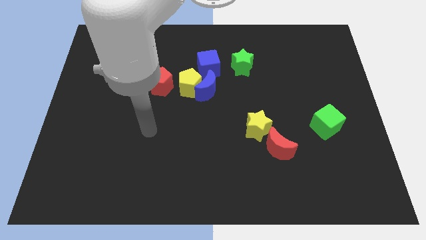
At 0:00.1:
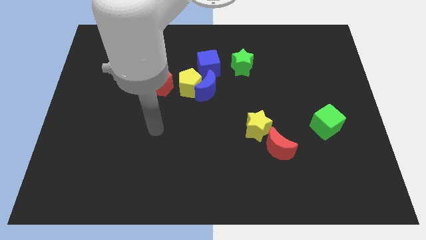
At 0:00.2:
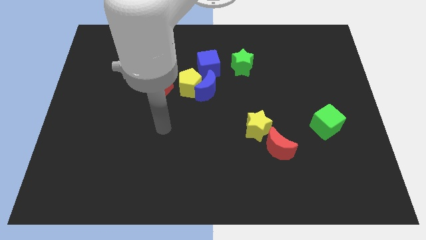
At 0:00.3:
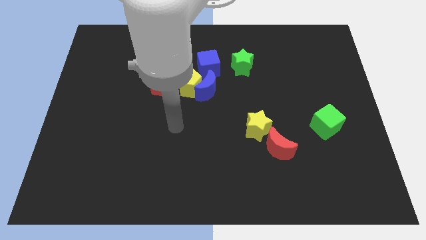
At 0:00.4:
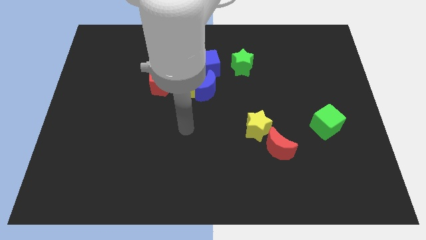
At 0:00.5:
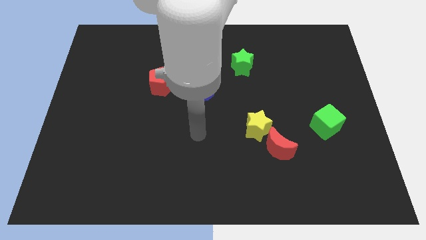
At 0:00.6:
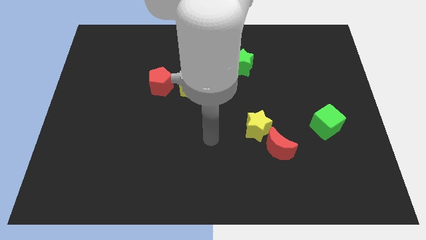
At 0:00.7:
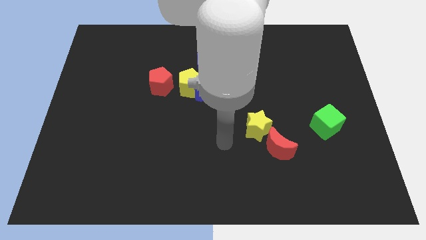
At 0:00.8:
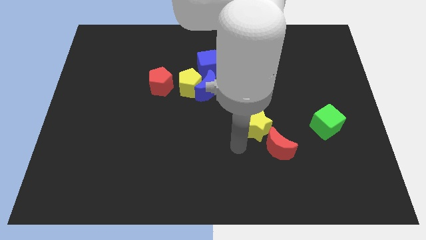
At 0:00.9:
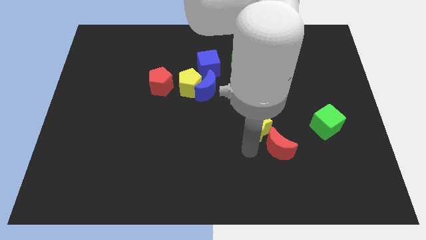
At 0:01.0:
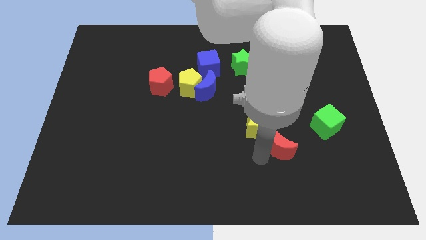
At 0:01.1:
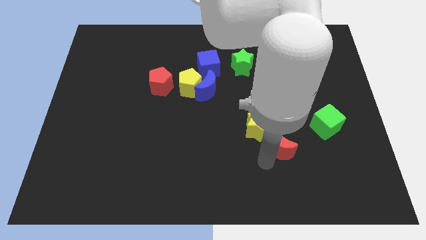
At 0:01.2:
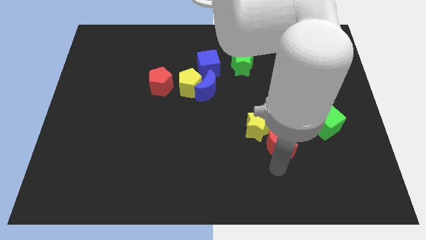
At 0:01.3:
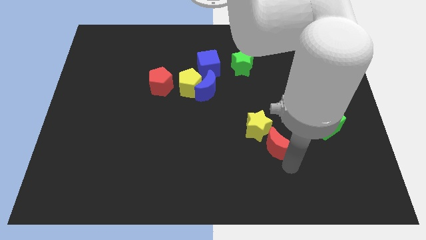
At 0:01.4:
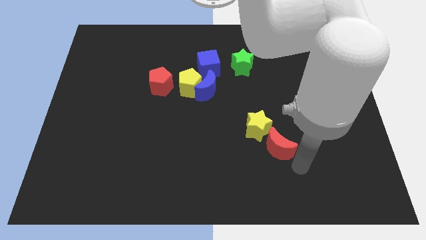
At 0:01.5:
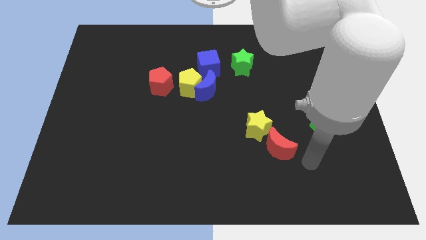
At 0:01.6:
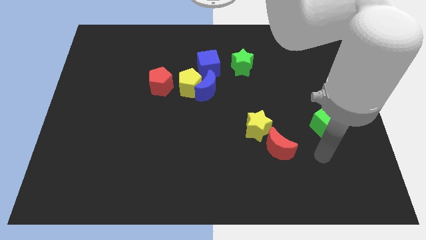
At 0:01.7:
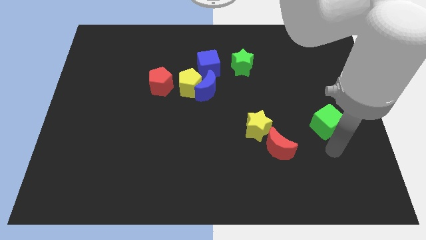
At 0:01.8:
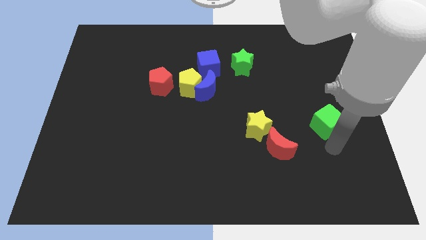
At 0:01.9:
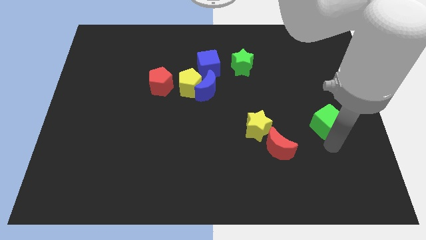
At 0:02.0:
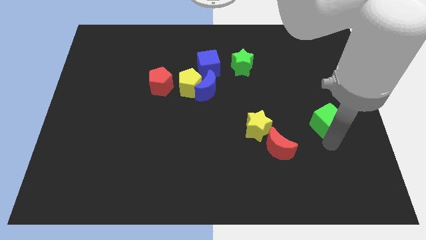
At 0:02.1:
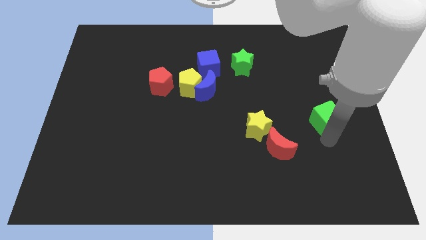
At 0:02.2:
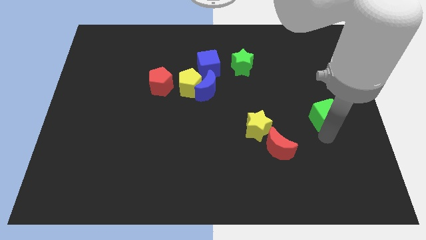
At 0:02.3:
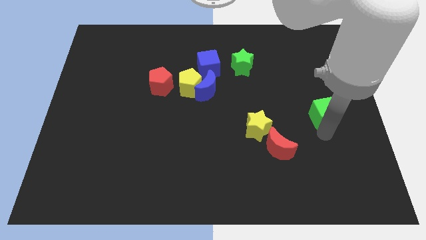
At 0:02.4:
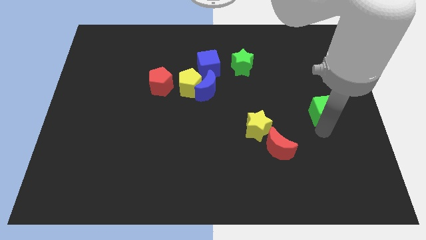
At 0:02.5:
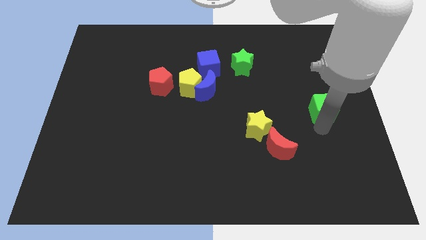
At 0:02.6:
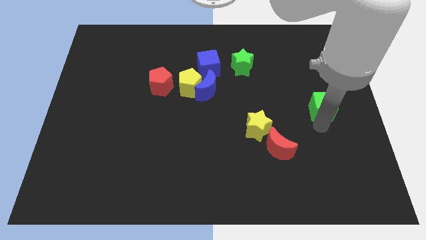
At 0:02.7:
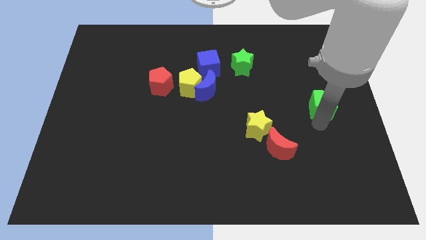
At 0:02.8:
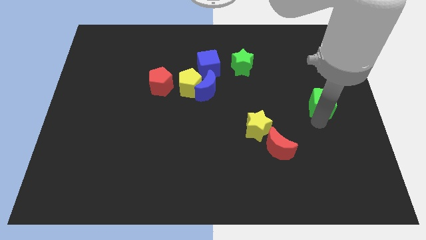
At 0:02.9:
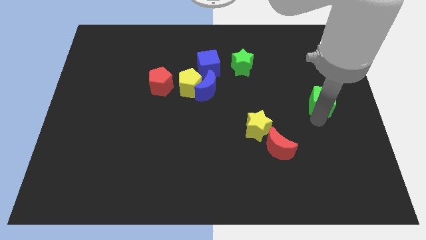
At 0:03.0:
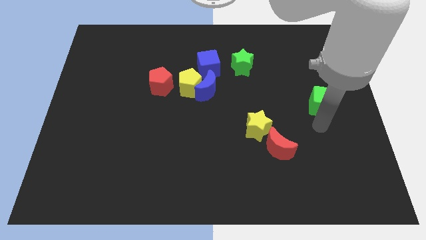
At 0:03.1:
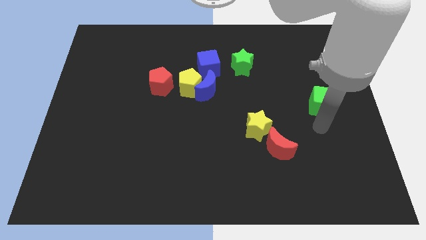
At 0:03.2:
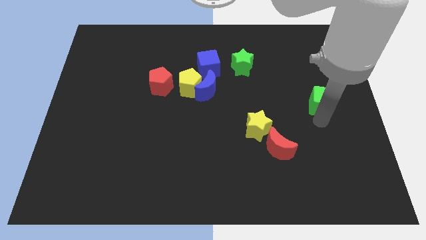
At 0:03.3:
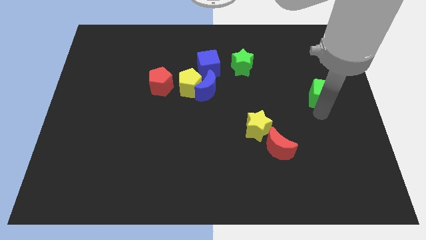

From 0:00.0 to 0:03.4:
move the green cube up a little bit

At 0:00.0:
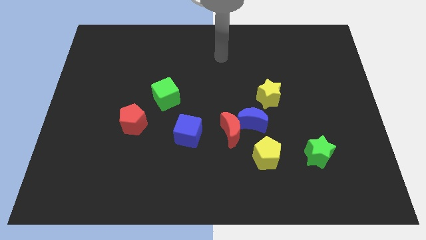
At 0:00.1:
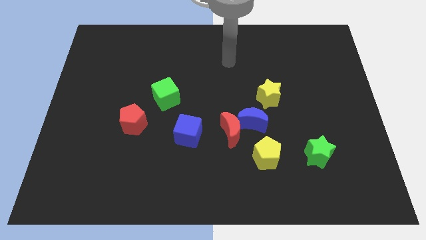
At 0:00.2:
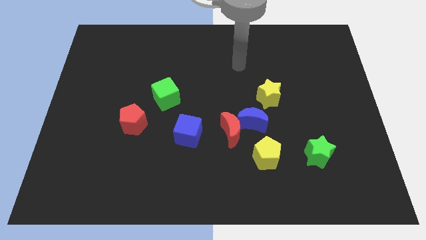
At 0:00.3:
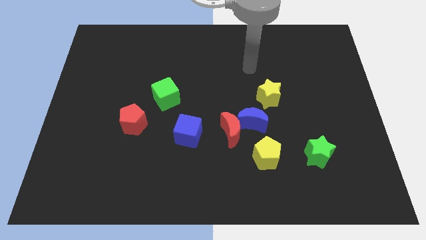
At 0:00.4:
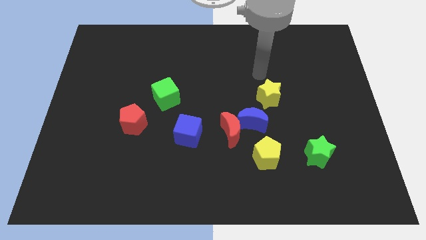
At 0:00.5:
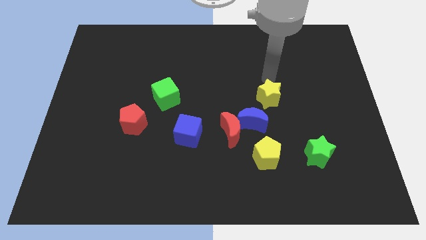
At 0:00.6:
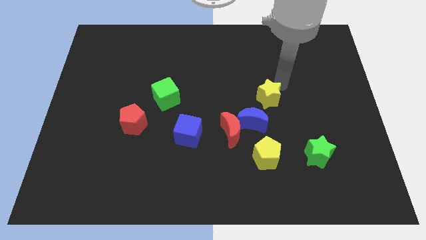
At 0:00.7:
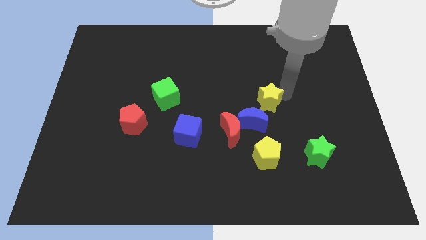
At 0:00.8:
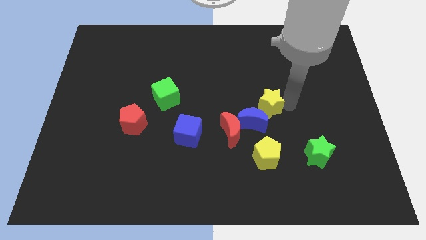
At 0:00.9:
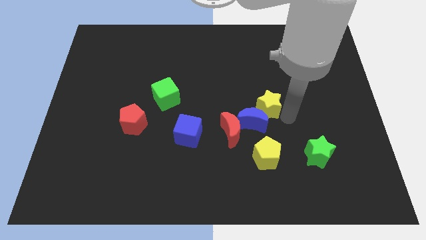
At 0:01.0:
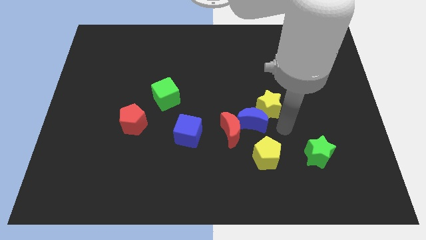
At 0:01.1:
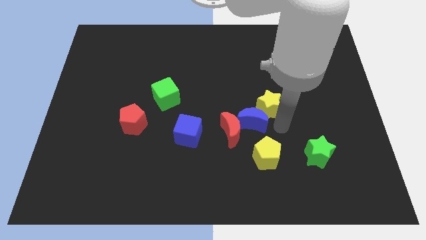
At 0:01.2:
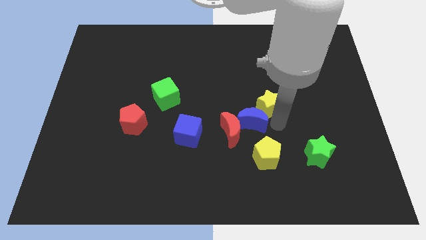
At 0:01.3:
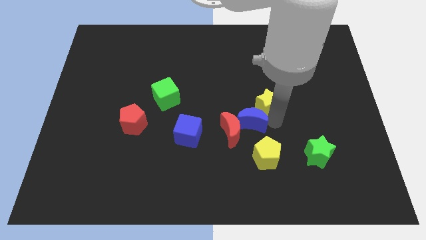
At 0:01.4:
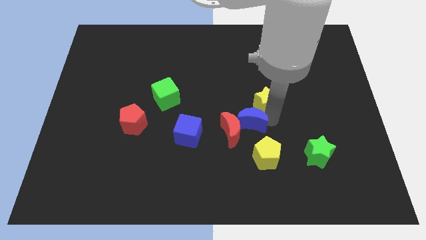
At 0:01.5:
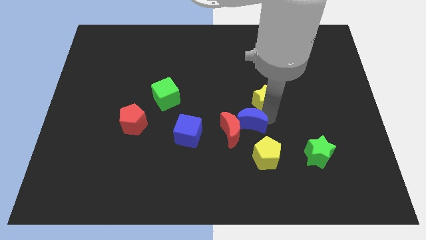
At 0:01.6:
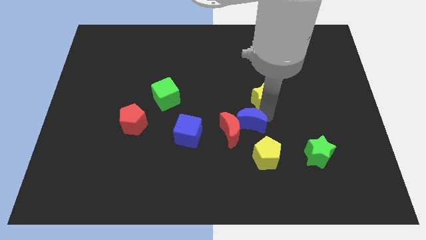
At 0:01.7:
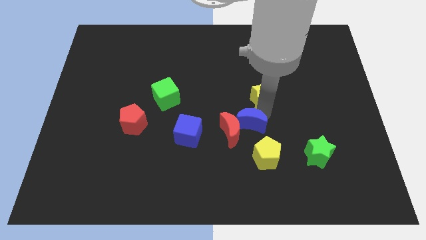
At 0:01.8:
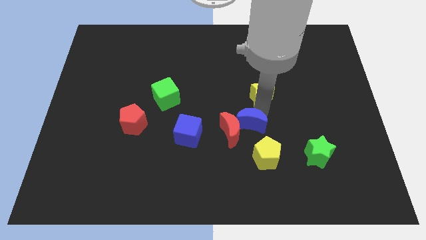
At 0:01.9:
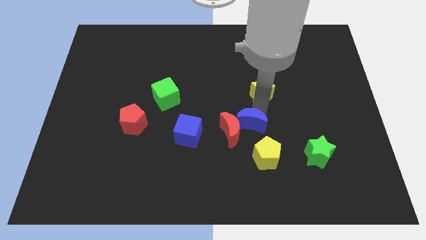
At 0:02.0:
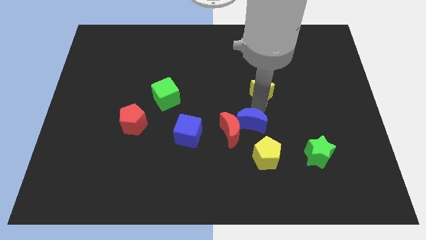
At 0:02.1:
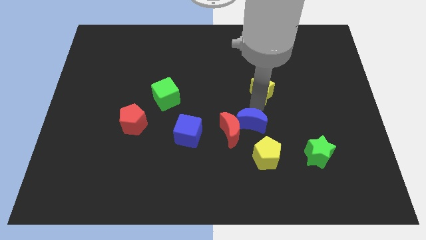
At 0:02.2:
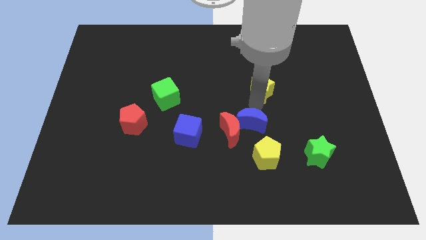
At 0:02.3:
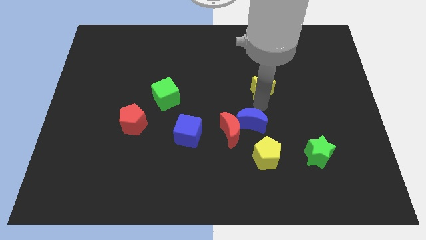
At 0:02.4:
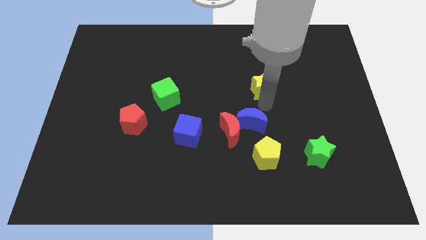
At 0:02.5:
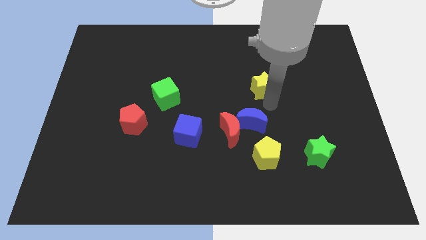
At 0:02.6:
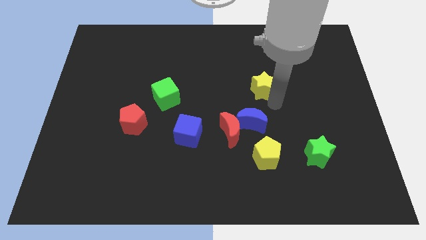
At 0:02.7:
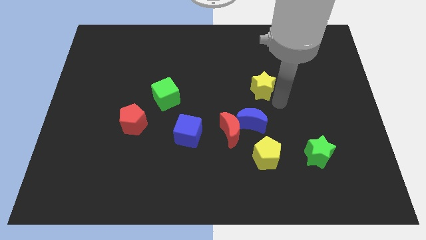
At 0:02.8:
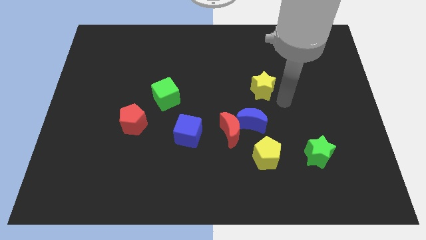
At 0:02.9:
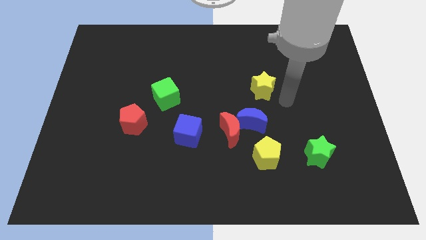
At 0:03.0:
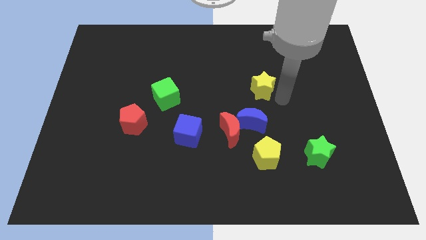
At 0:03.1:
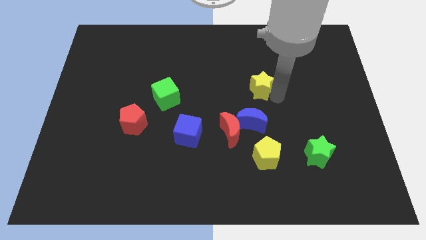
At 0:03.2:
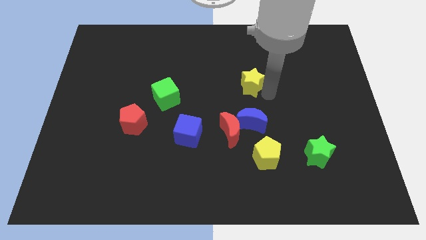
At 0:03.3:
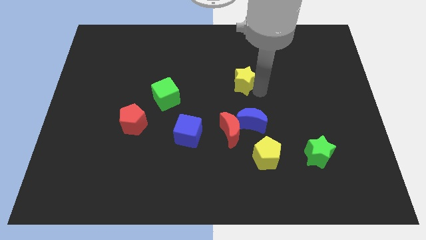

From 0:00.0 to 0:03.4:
move the yellow star up and to the left a little bit

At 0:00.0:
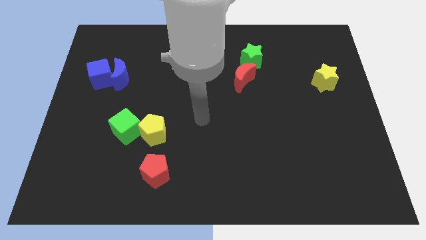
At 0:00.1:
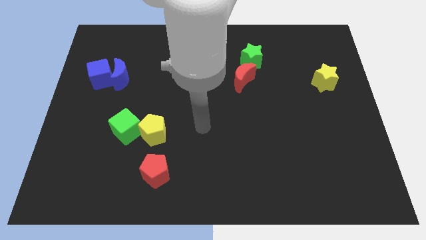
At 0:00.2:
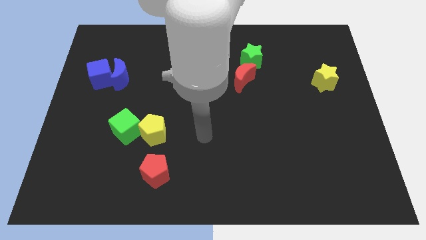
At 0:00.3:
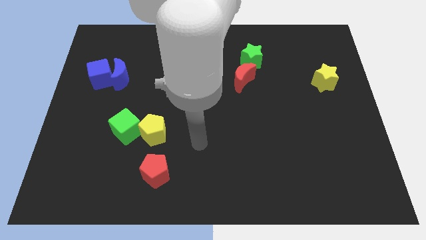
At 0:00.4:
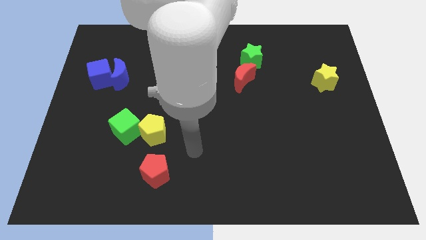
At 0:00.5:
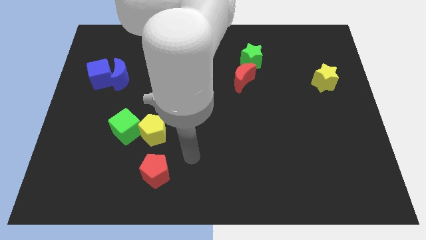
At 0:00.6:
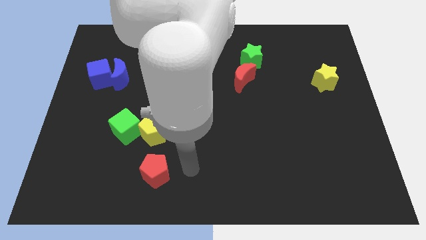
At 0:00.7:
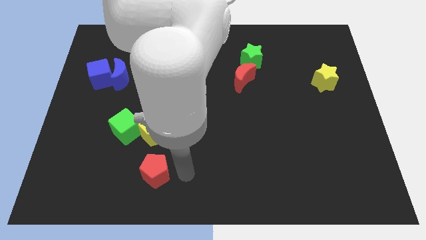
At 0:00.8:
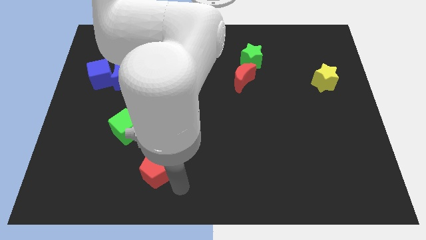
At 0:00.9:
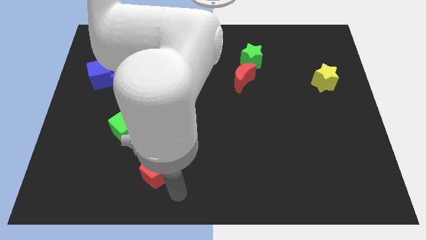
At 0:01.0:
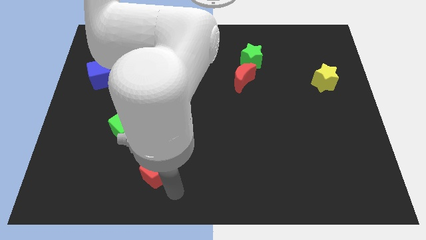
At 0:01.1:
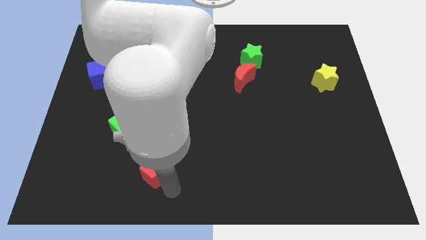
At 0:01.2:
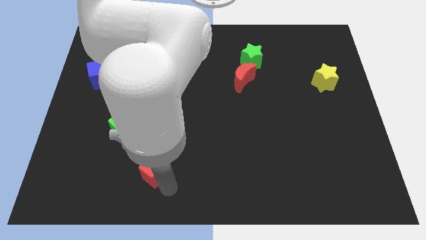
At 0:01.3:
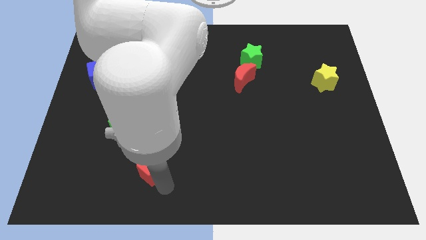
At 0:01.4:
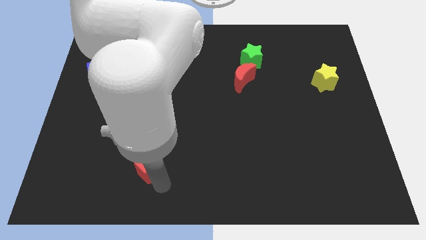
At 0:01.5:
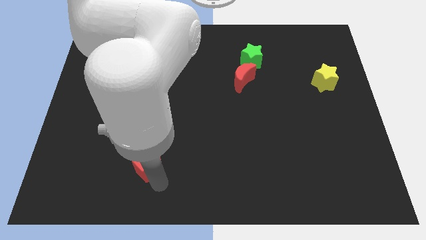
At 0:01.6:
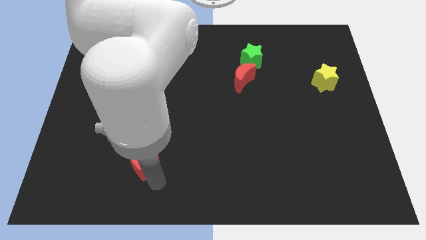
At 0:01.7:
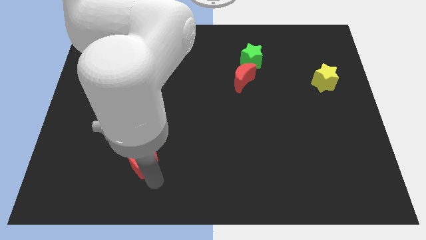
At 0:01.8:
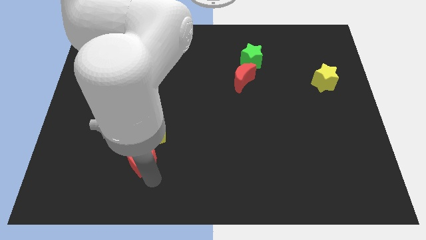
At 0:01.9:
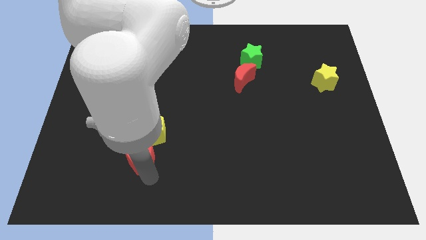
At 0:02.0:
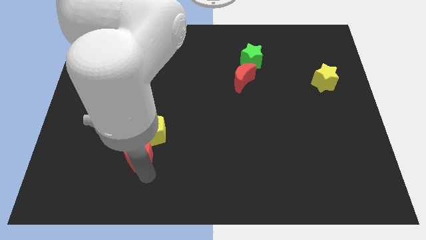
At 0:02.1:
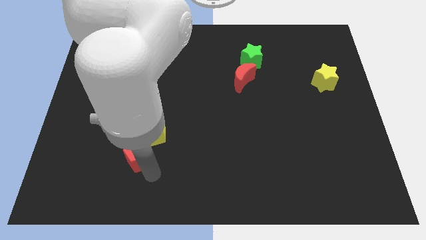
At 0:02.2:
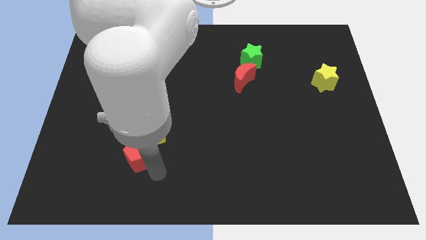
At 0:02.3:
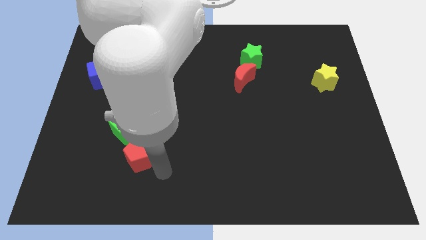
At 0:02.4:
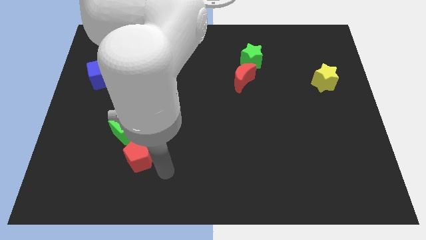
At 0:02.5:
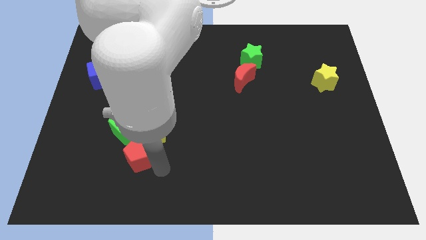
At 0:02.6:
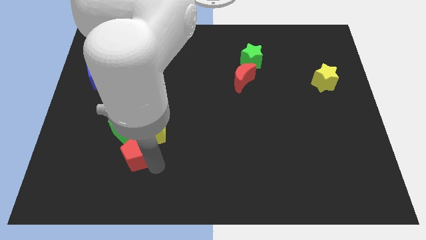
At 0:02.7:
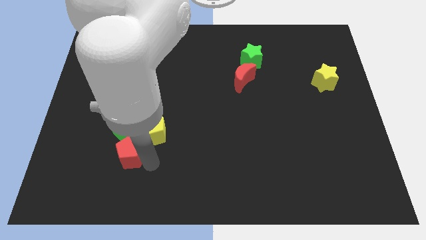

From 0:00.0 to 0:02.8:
slightly slide the red pentagon up and left
